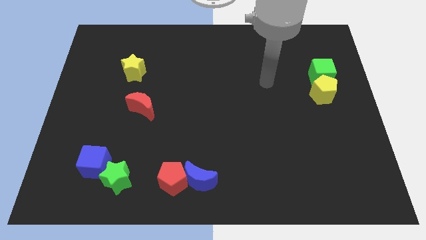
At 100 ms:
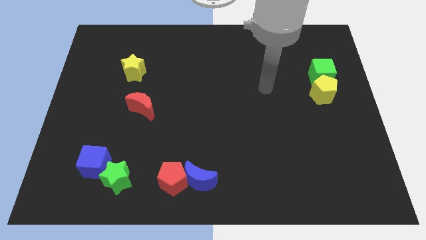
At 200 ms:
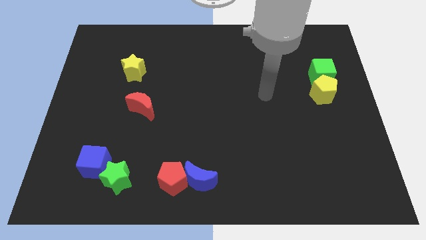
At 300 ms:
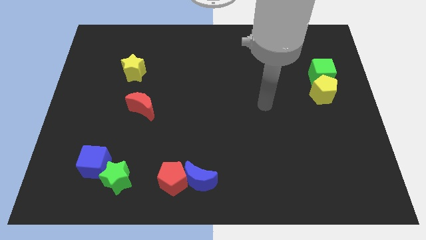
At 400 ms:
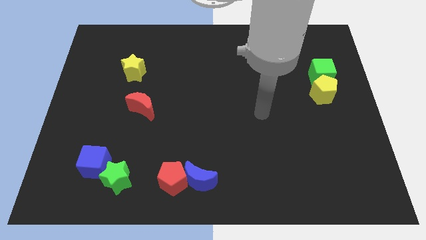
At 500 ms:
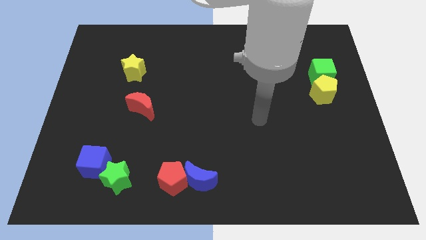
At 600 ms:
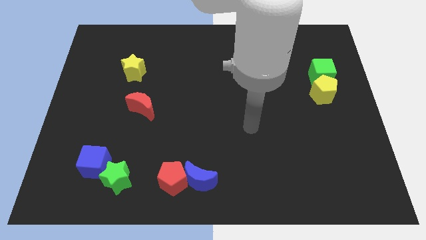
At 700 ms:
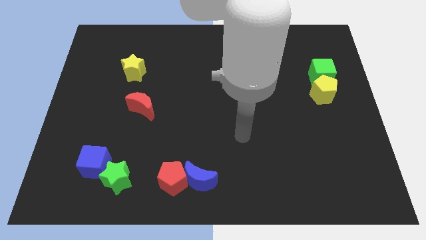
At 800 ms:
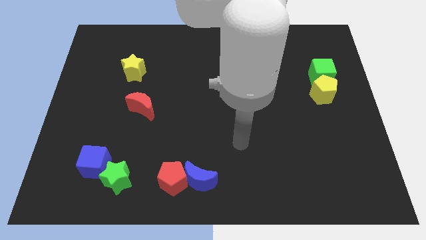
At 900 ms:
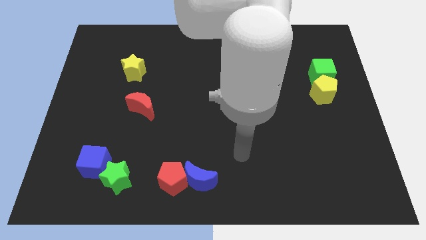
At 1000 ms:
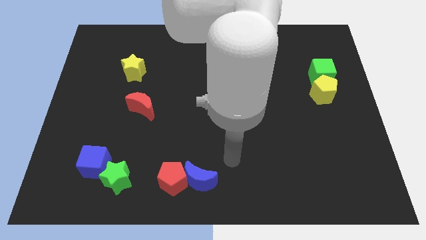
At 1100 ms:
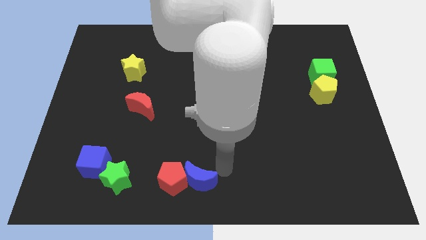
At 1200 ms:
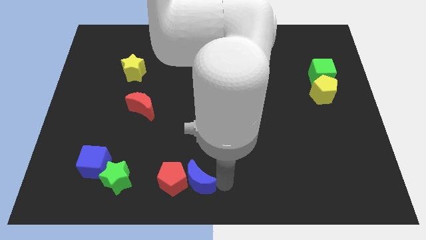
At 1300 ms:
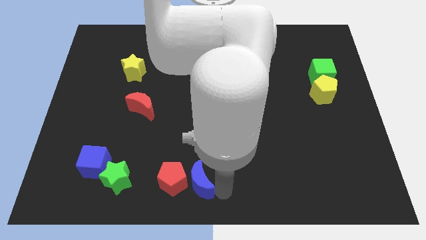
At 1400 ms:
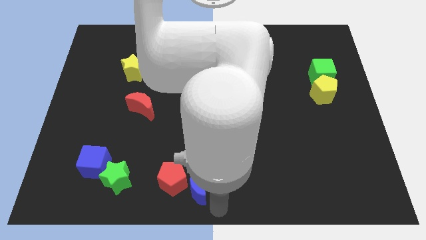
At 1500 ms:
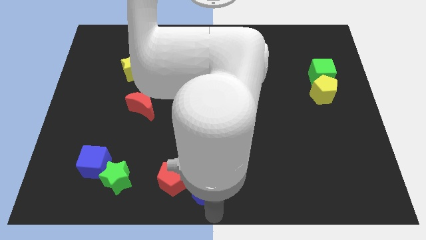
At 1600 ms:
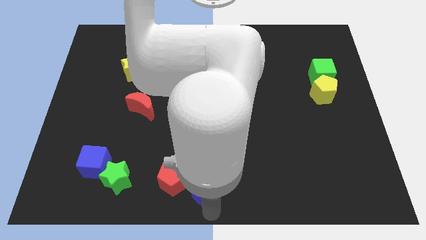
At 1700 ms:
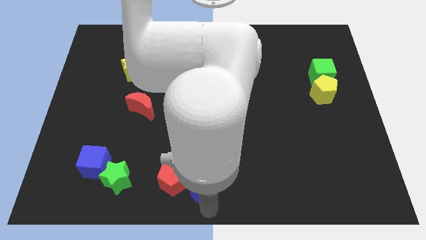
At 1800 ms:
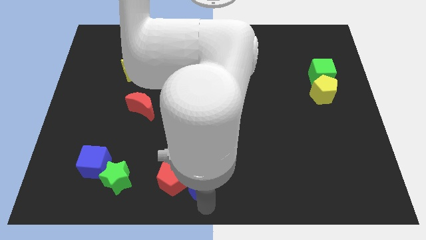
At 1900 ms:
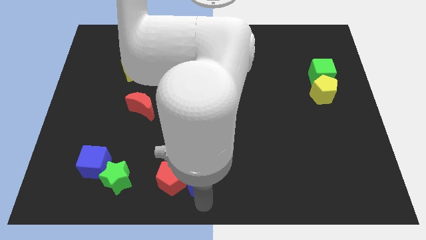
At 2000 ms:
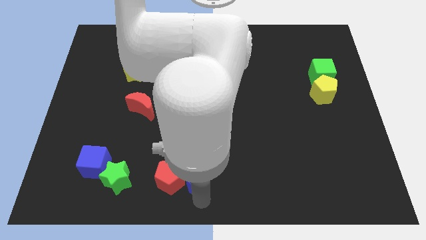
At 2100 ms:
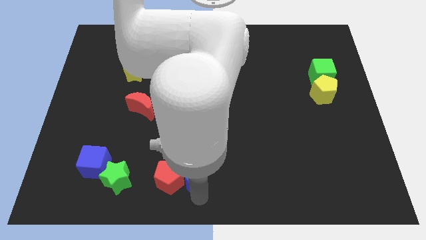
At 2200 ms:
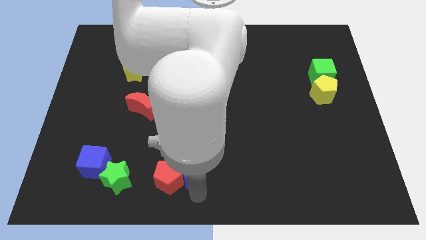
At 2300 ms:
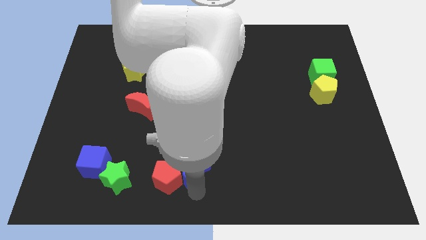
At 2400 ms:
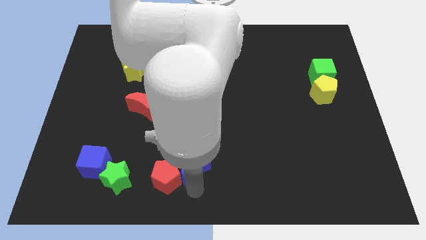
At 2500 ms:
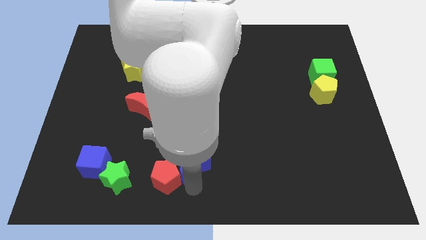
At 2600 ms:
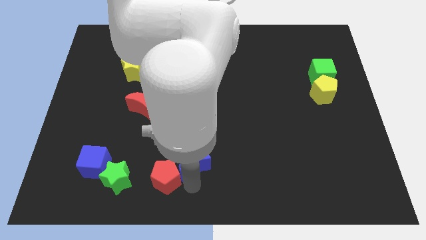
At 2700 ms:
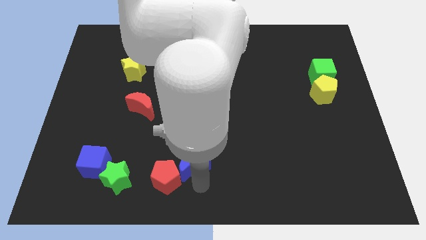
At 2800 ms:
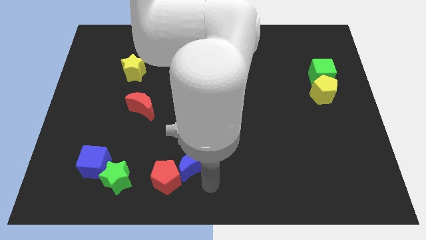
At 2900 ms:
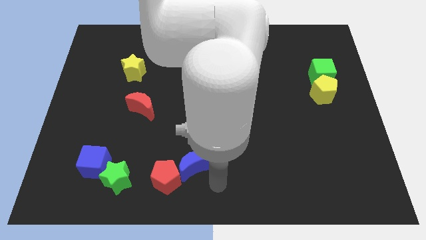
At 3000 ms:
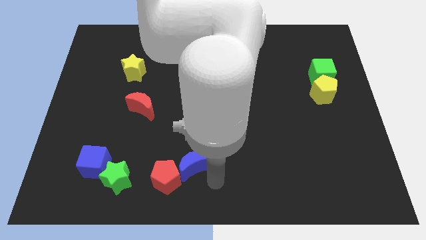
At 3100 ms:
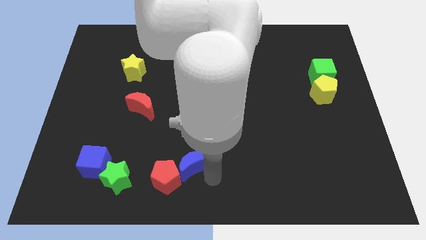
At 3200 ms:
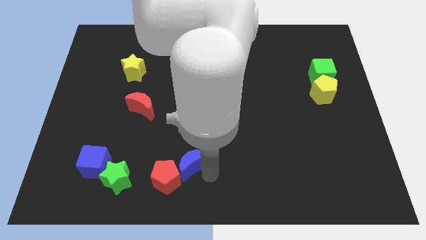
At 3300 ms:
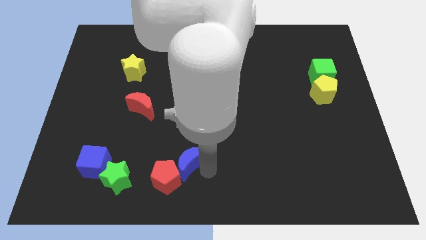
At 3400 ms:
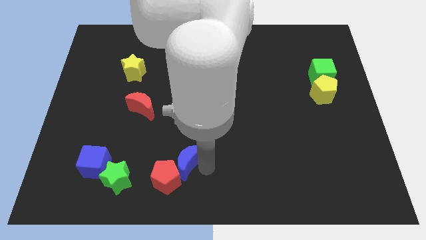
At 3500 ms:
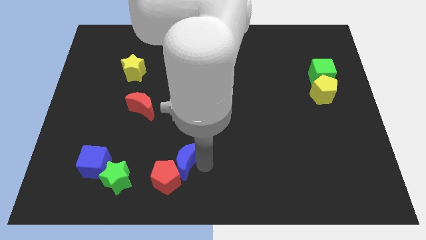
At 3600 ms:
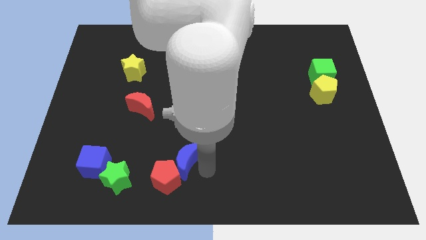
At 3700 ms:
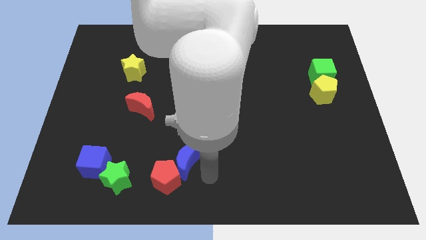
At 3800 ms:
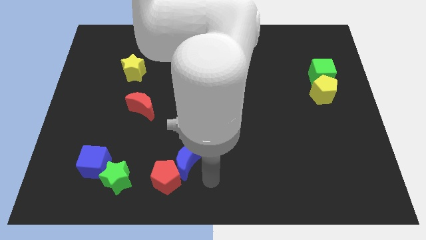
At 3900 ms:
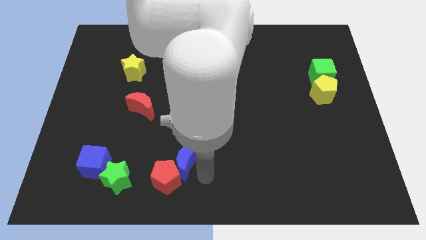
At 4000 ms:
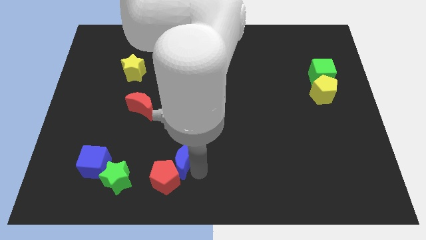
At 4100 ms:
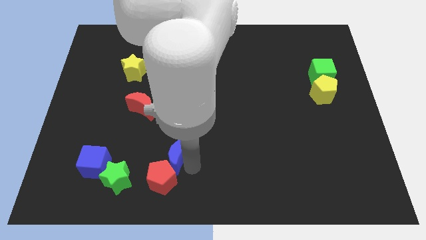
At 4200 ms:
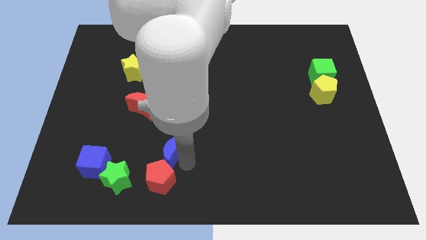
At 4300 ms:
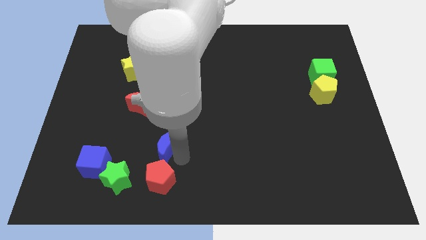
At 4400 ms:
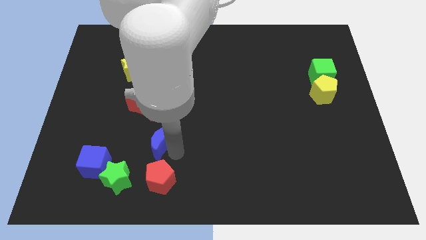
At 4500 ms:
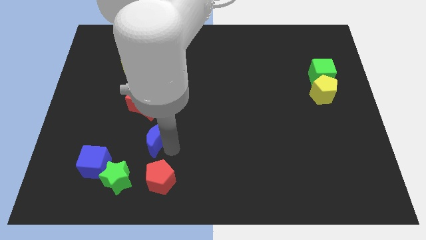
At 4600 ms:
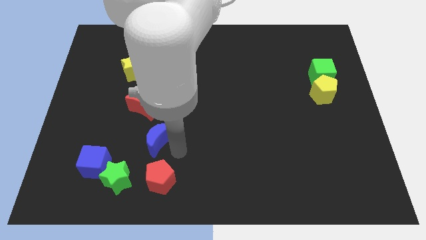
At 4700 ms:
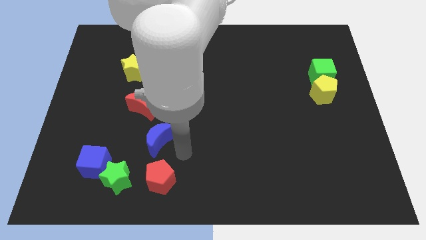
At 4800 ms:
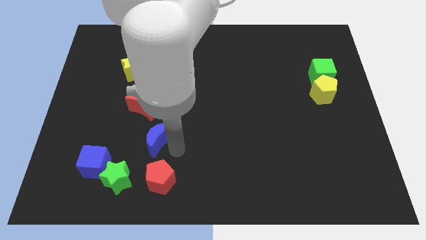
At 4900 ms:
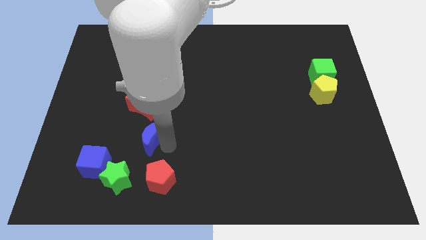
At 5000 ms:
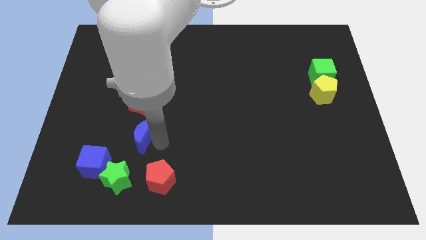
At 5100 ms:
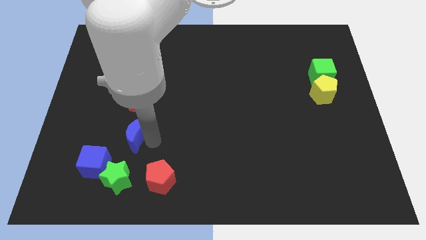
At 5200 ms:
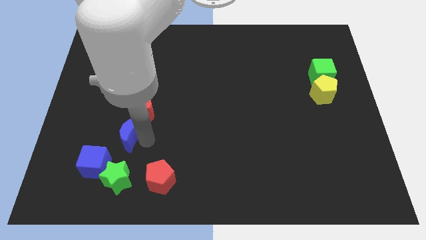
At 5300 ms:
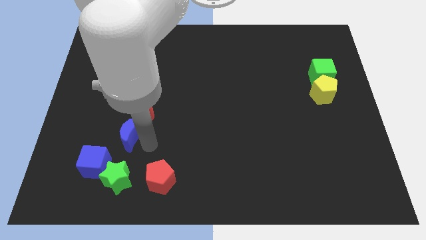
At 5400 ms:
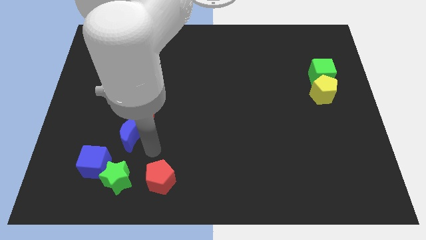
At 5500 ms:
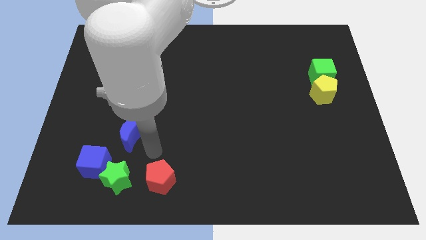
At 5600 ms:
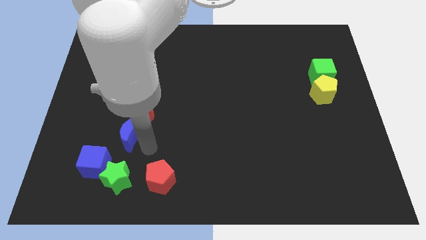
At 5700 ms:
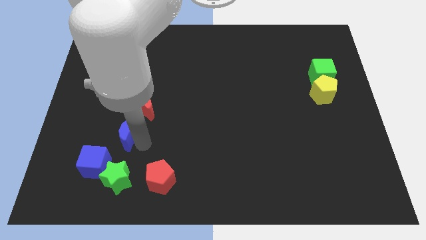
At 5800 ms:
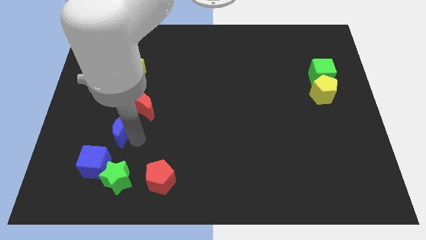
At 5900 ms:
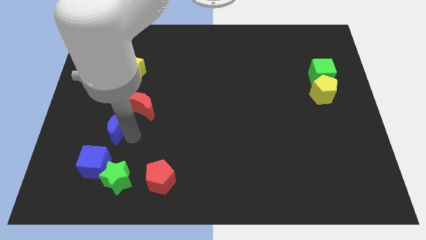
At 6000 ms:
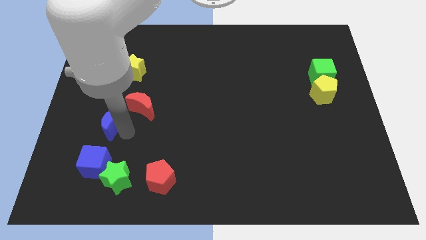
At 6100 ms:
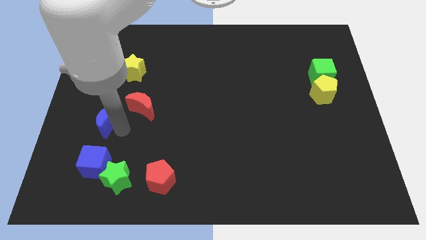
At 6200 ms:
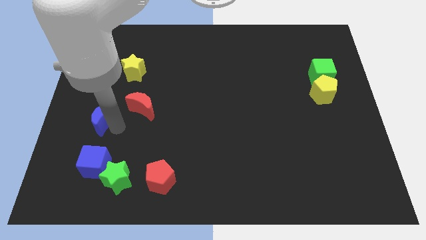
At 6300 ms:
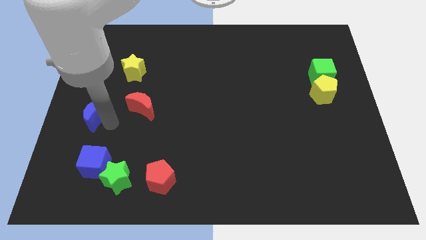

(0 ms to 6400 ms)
slide the blue moon to the left side
